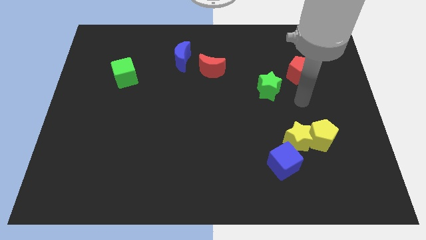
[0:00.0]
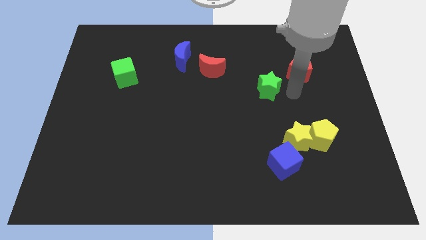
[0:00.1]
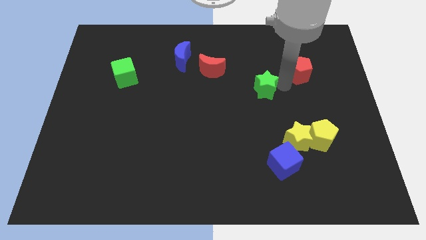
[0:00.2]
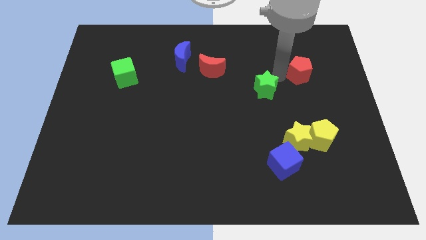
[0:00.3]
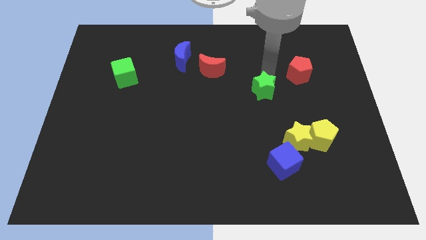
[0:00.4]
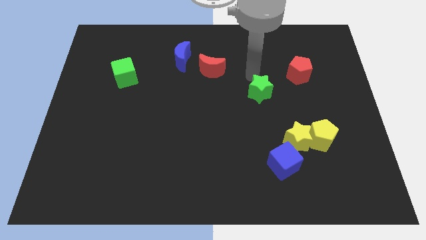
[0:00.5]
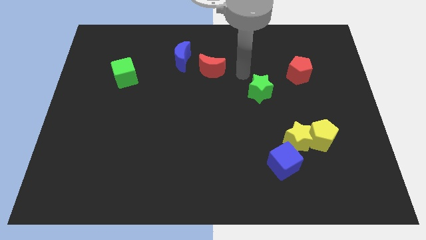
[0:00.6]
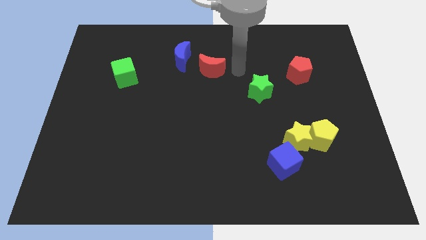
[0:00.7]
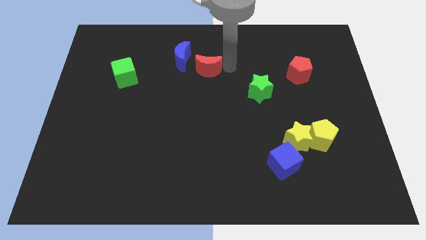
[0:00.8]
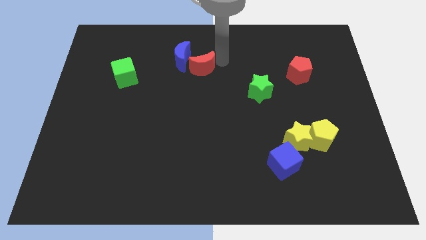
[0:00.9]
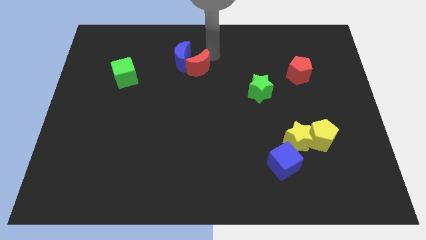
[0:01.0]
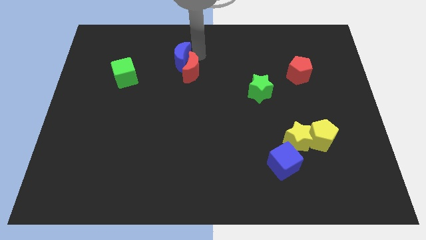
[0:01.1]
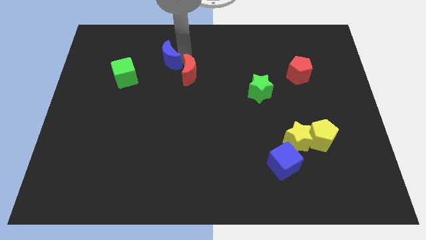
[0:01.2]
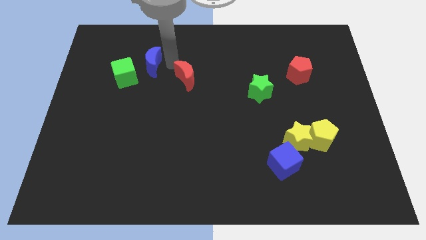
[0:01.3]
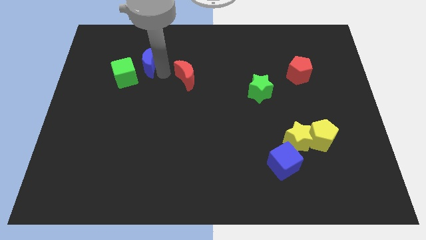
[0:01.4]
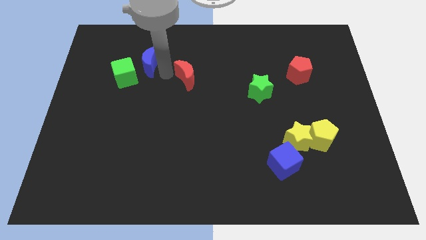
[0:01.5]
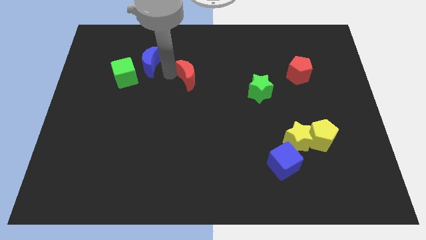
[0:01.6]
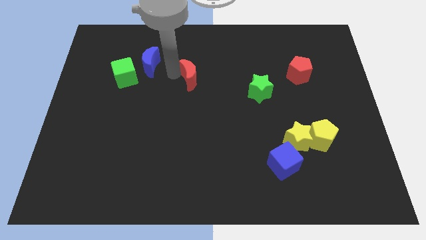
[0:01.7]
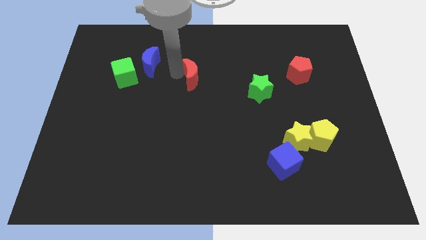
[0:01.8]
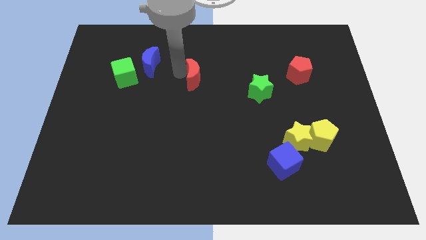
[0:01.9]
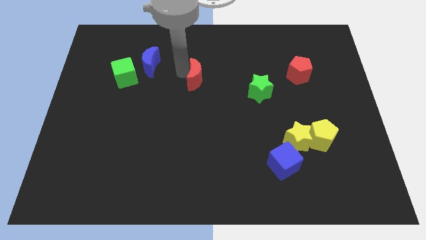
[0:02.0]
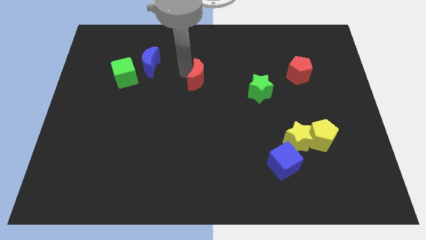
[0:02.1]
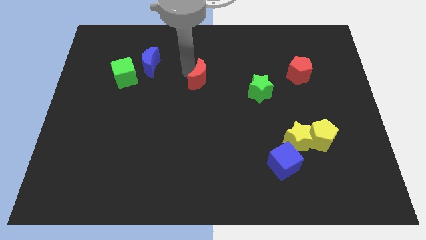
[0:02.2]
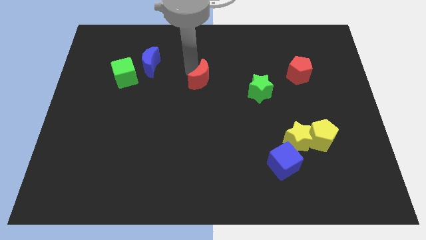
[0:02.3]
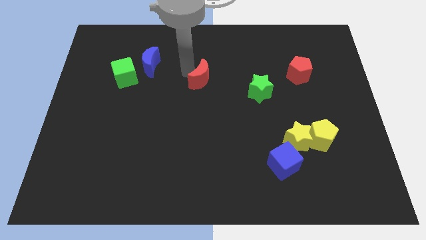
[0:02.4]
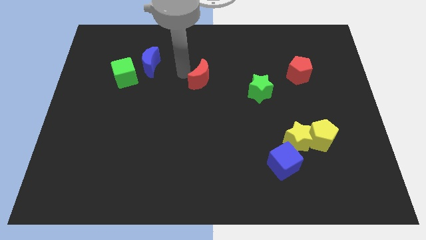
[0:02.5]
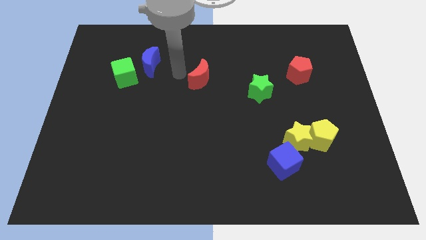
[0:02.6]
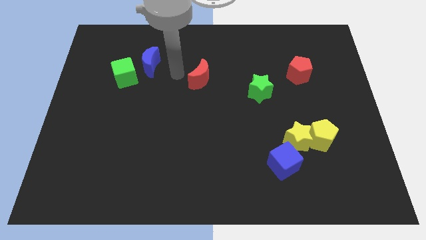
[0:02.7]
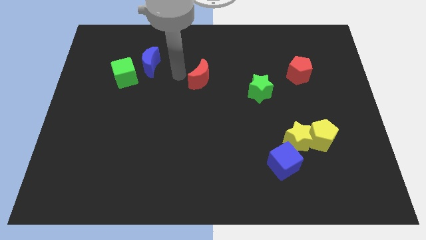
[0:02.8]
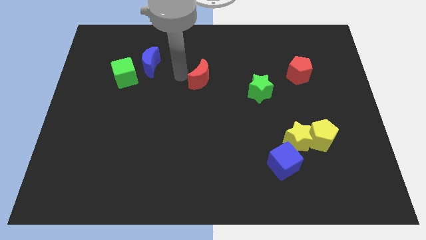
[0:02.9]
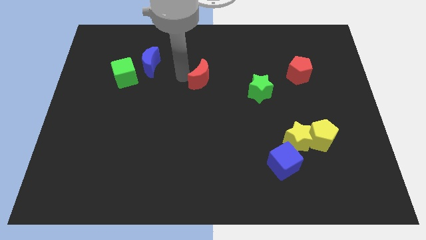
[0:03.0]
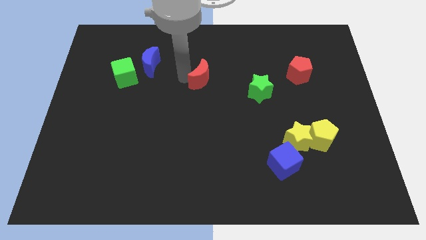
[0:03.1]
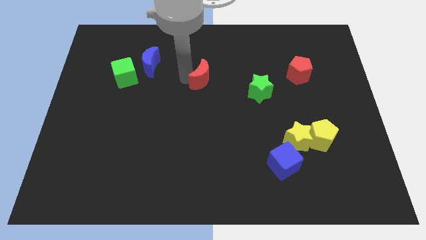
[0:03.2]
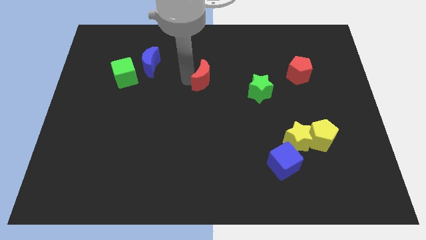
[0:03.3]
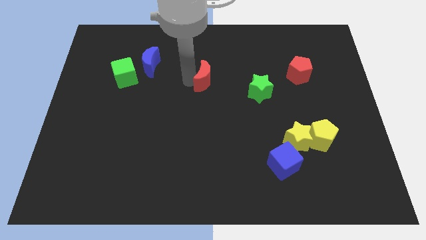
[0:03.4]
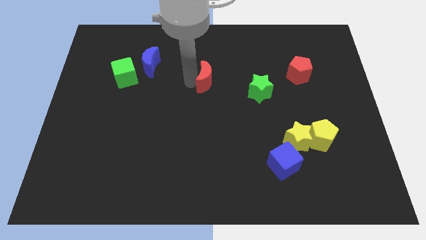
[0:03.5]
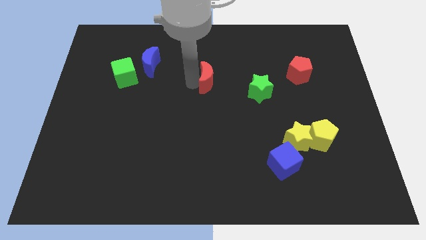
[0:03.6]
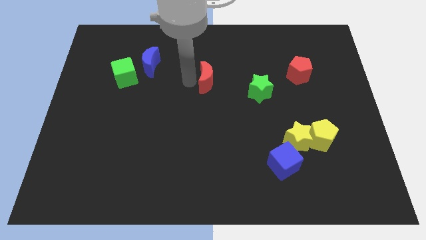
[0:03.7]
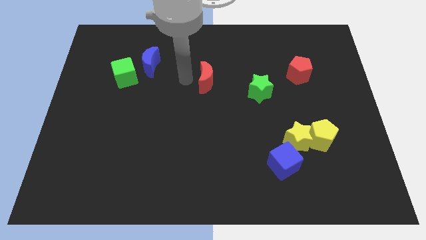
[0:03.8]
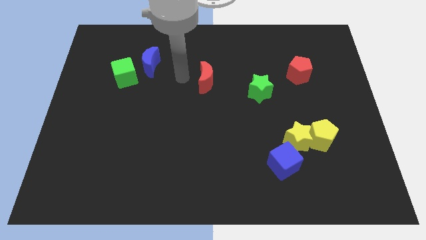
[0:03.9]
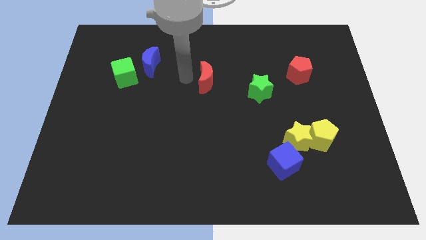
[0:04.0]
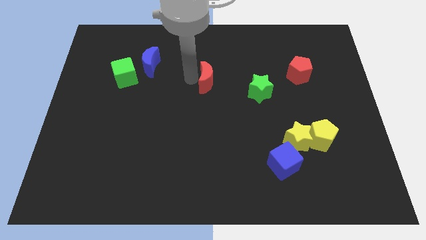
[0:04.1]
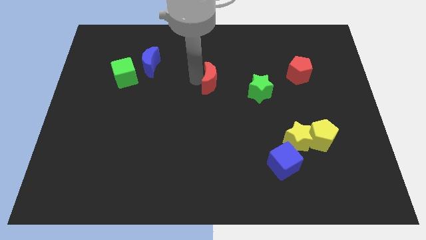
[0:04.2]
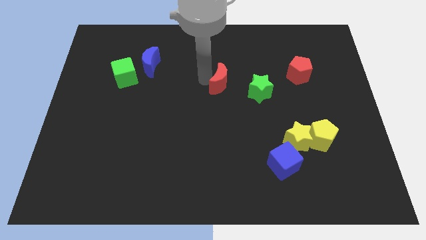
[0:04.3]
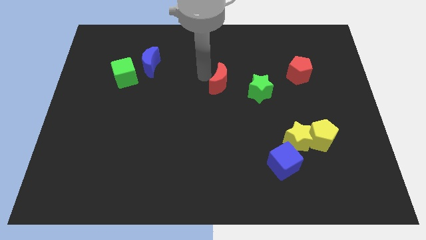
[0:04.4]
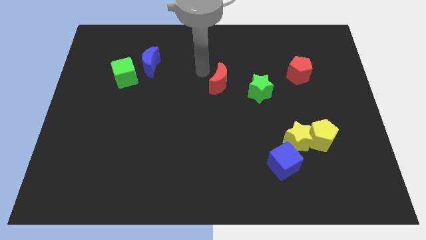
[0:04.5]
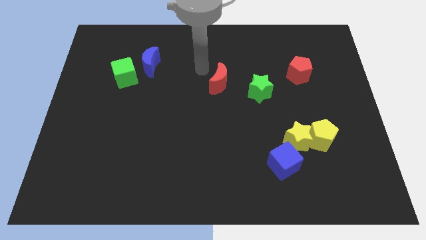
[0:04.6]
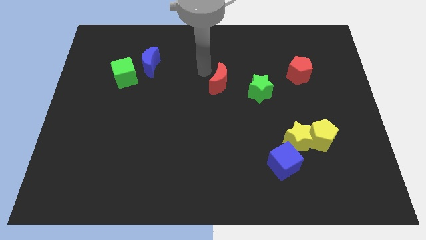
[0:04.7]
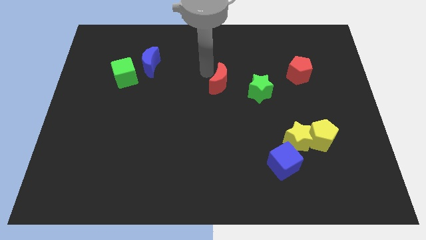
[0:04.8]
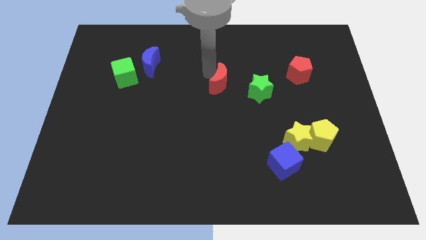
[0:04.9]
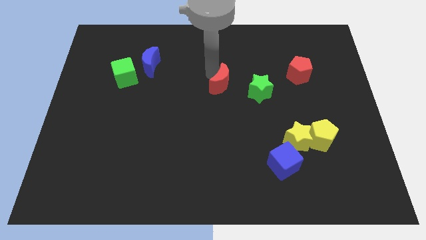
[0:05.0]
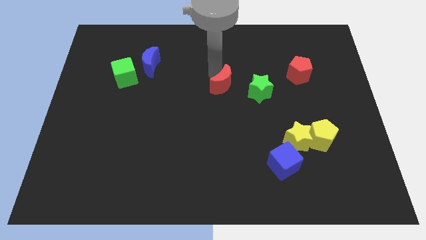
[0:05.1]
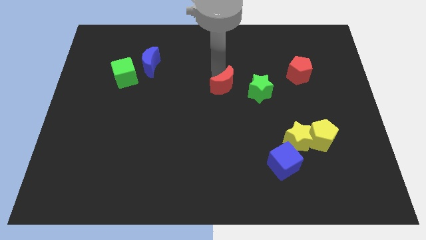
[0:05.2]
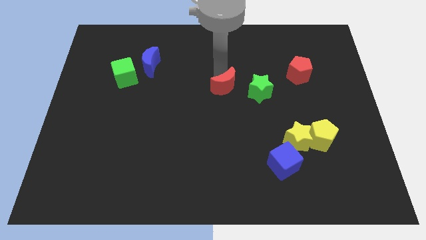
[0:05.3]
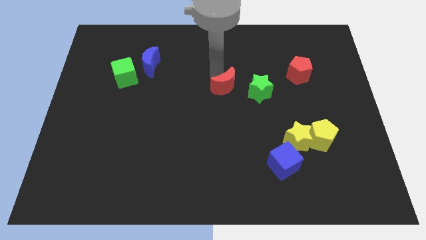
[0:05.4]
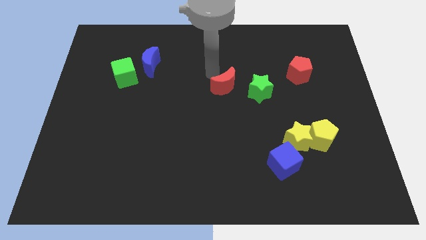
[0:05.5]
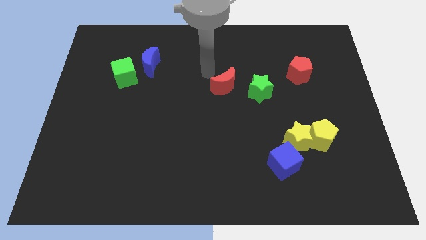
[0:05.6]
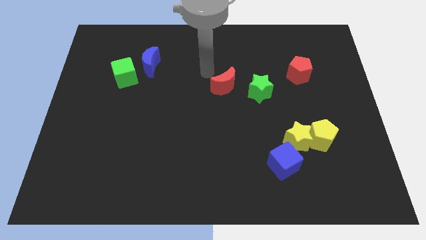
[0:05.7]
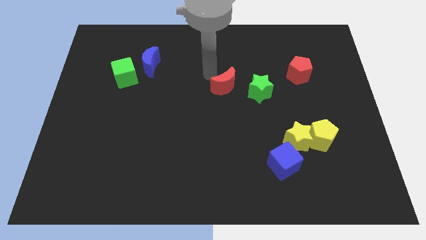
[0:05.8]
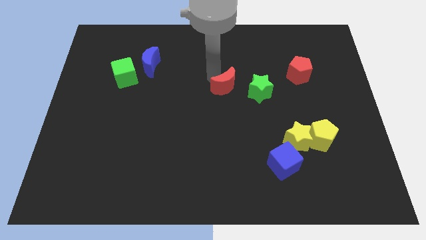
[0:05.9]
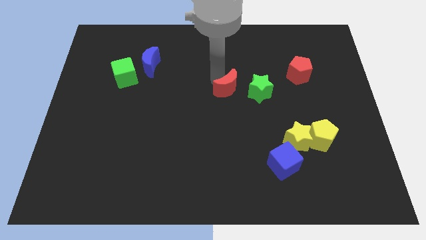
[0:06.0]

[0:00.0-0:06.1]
move the red moon a little downwards and to the right

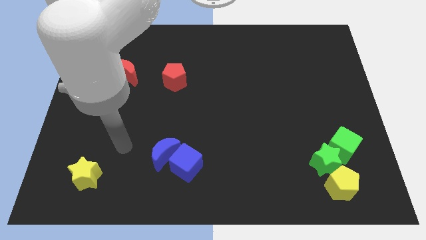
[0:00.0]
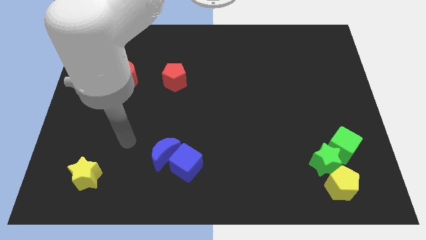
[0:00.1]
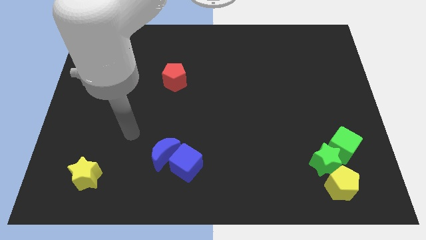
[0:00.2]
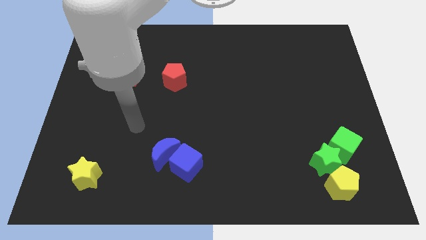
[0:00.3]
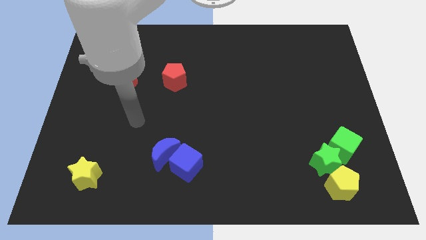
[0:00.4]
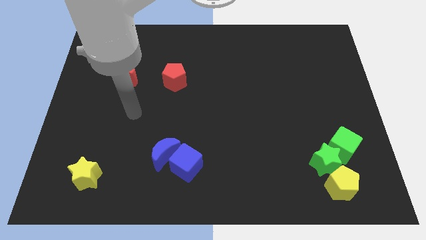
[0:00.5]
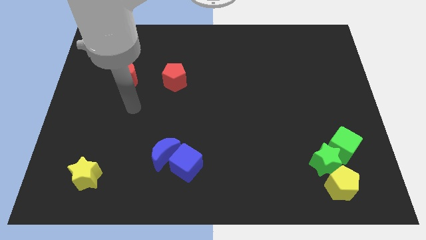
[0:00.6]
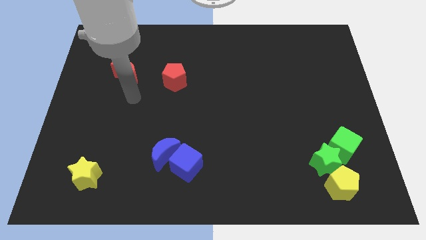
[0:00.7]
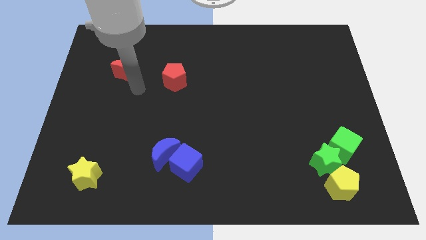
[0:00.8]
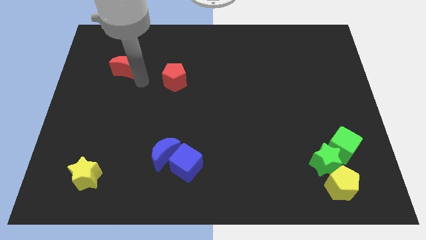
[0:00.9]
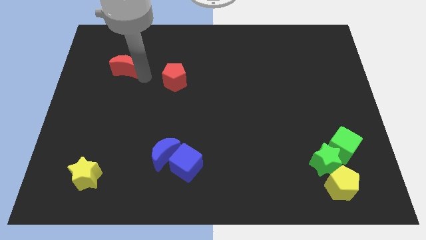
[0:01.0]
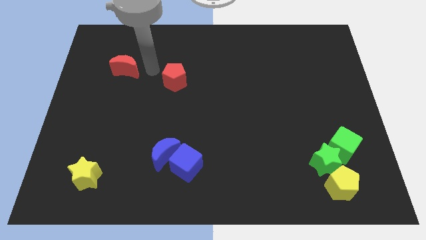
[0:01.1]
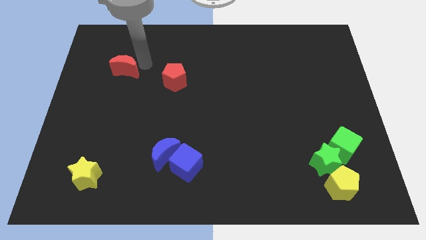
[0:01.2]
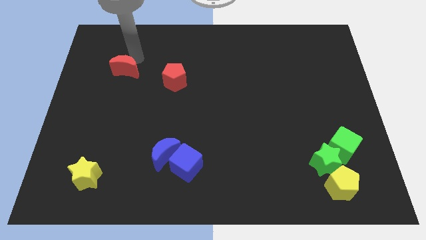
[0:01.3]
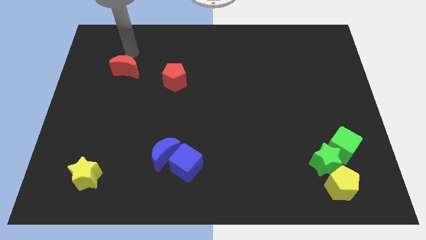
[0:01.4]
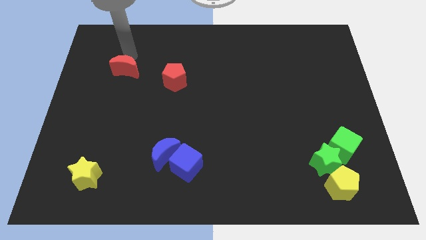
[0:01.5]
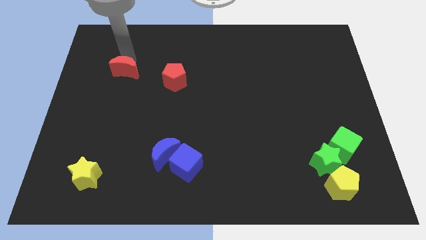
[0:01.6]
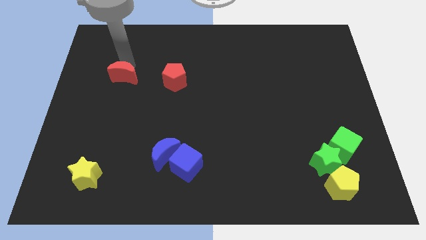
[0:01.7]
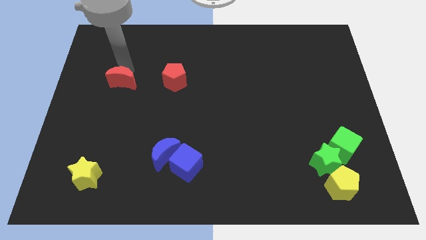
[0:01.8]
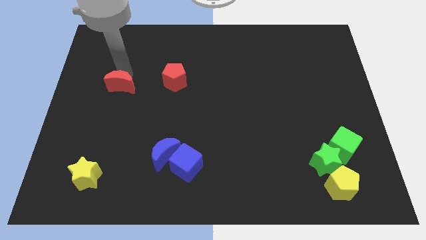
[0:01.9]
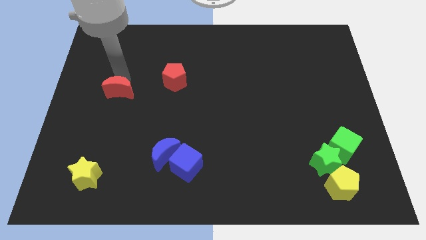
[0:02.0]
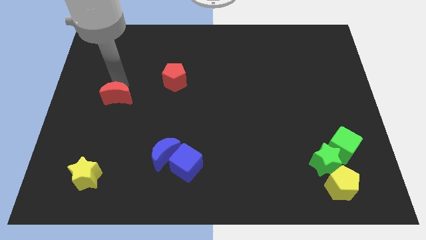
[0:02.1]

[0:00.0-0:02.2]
push the red moon down somewhat

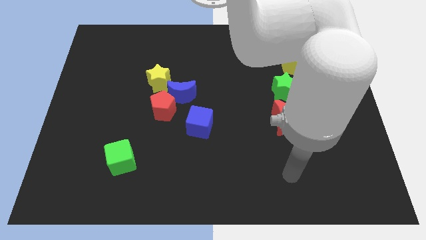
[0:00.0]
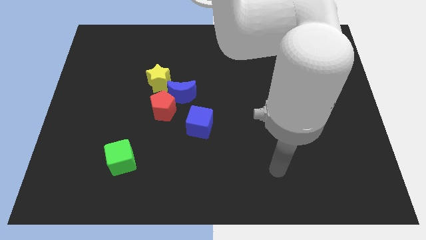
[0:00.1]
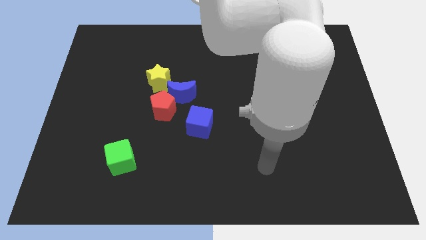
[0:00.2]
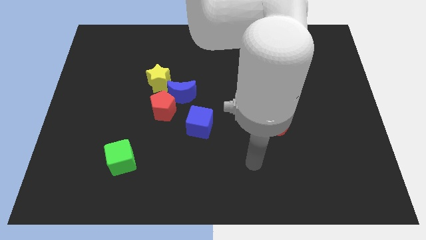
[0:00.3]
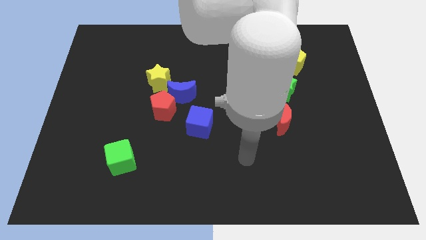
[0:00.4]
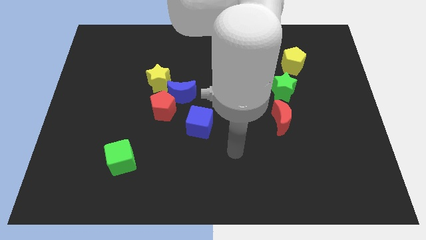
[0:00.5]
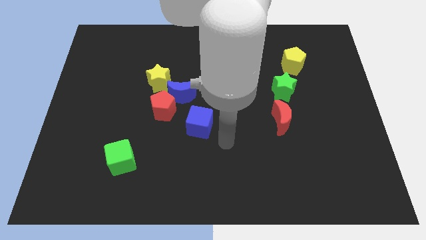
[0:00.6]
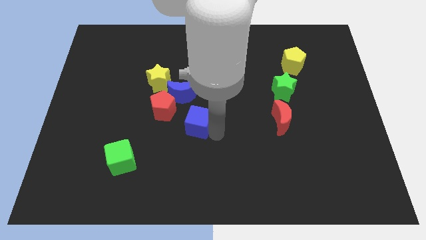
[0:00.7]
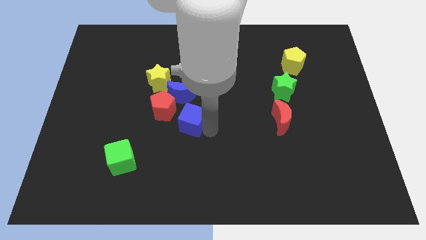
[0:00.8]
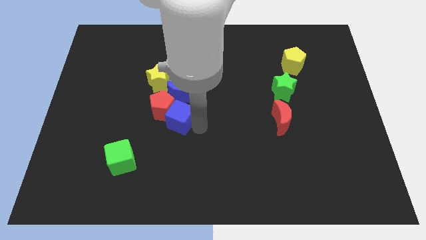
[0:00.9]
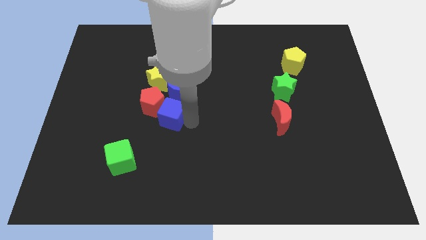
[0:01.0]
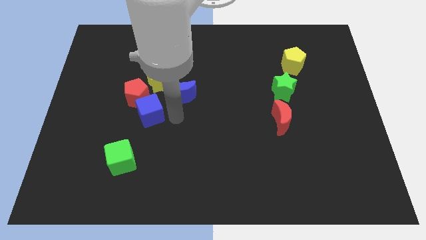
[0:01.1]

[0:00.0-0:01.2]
push the red pentagon a little bit diagonally upwards and left
